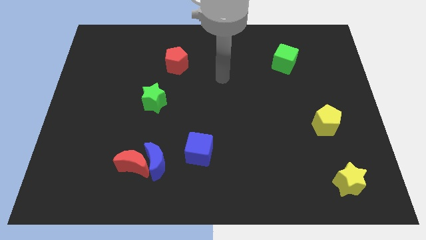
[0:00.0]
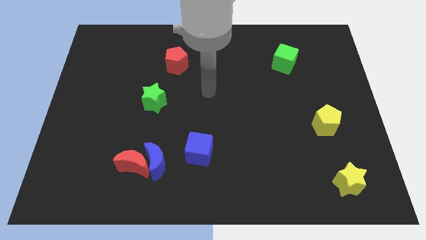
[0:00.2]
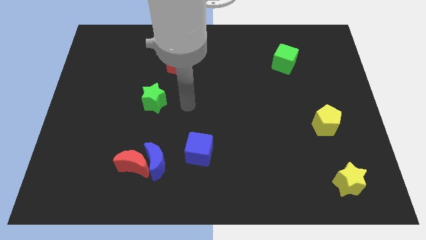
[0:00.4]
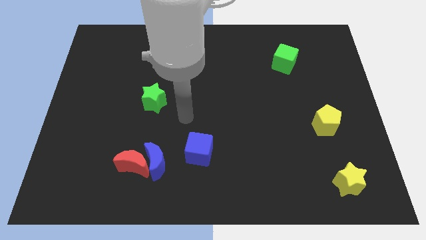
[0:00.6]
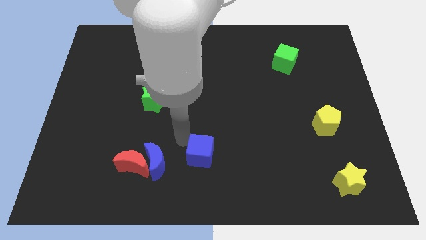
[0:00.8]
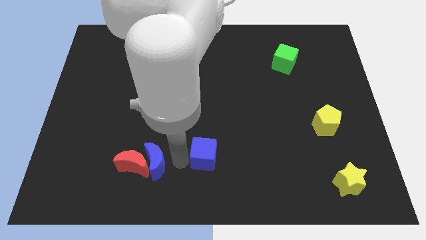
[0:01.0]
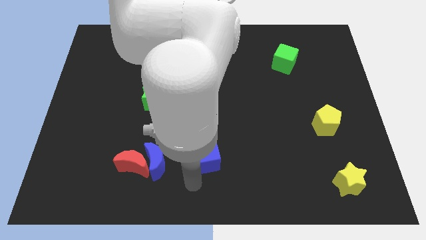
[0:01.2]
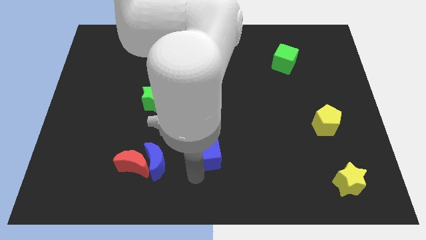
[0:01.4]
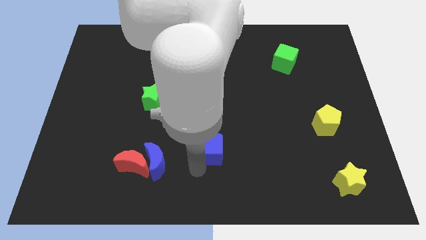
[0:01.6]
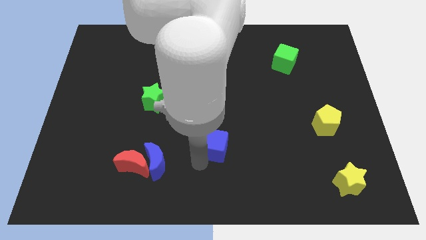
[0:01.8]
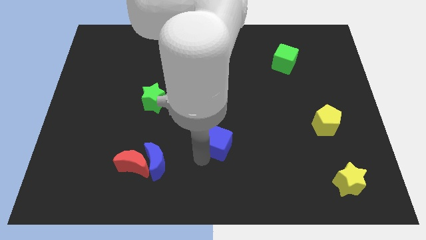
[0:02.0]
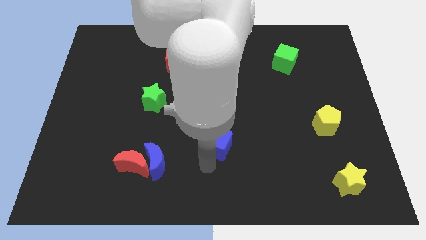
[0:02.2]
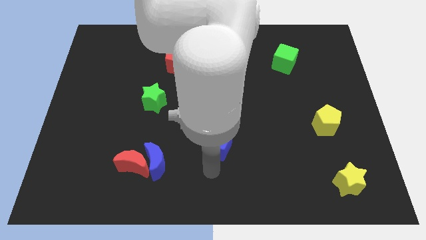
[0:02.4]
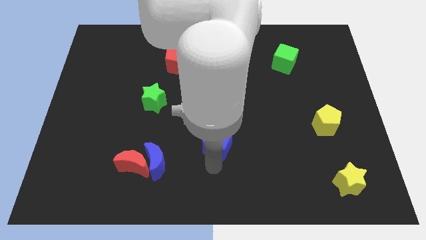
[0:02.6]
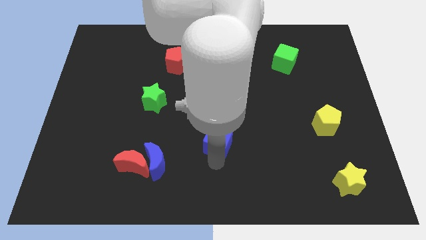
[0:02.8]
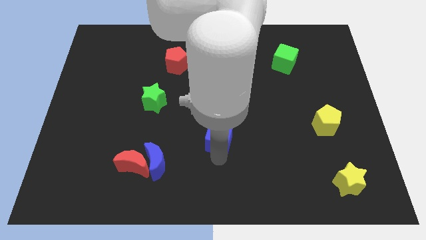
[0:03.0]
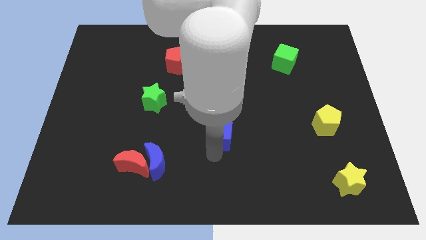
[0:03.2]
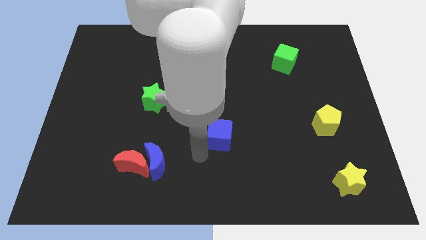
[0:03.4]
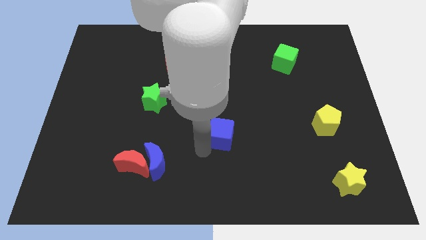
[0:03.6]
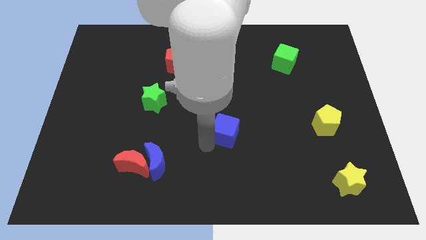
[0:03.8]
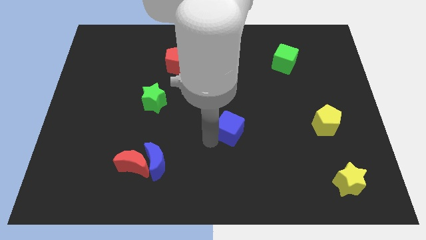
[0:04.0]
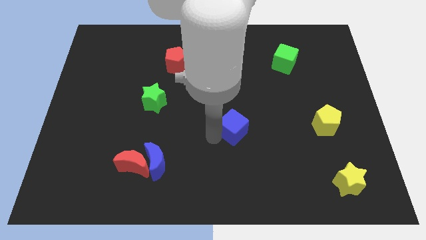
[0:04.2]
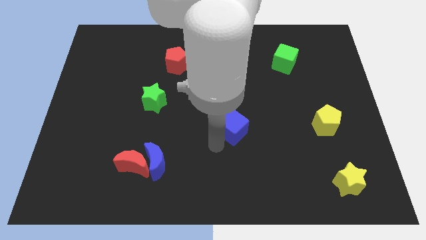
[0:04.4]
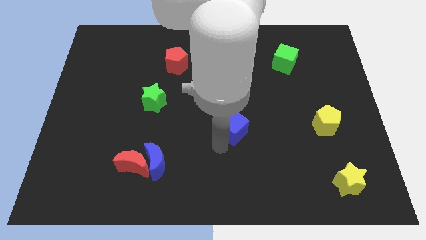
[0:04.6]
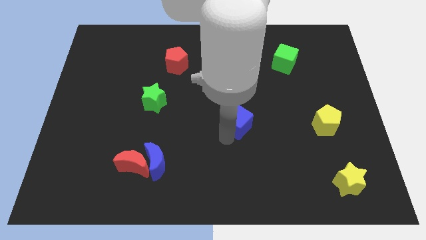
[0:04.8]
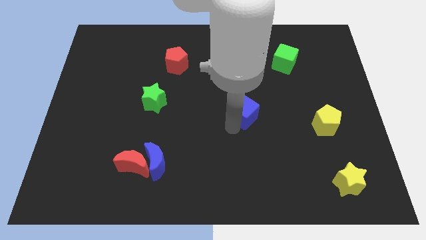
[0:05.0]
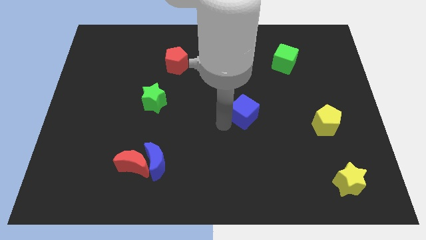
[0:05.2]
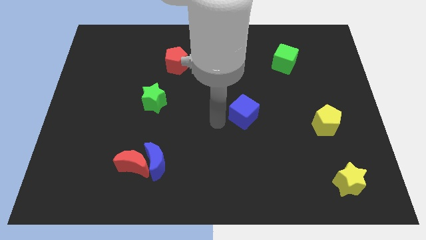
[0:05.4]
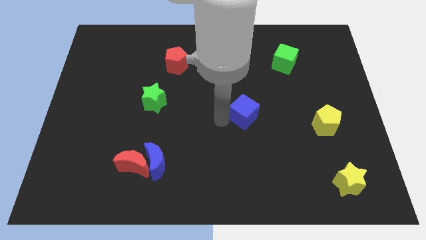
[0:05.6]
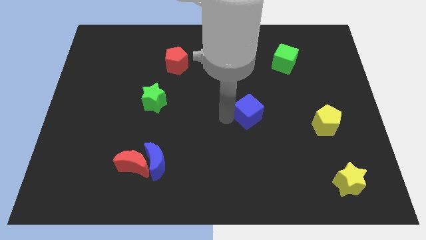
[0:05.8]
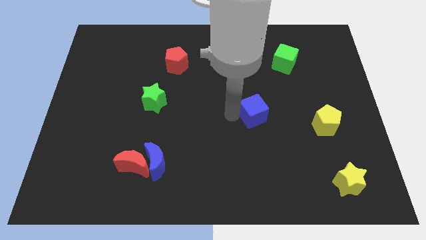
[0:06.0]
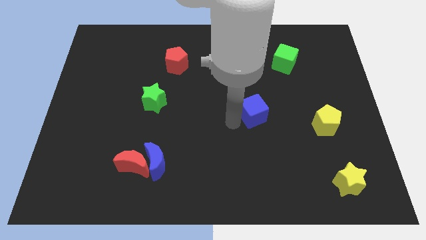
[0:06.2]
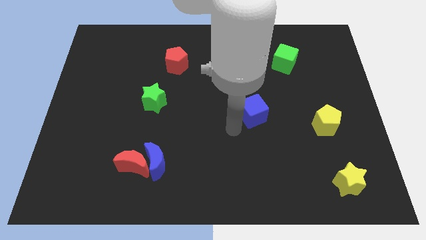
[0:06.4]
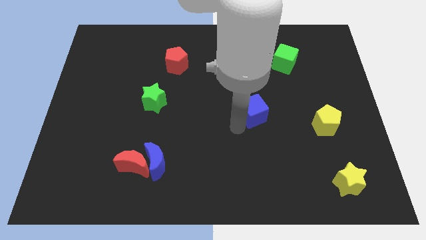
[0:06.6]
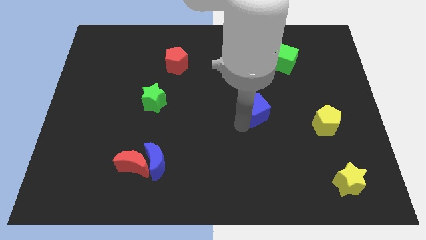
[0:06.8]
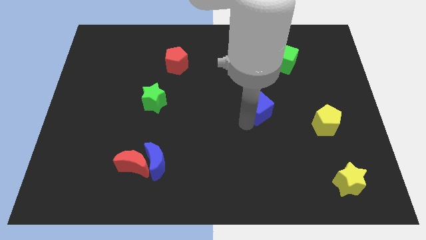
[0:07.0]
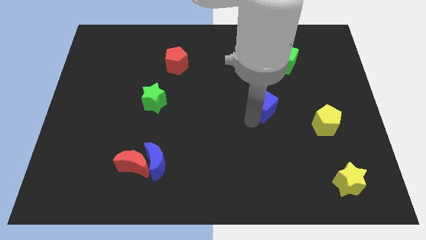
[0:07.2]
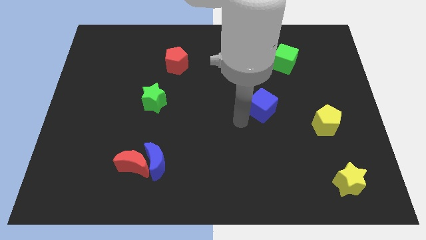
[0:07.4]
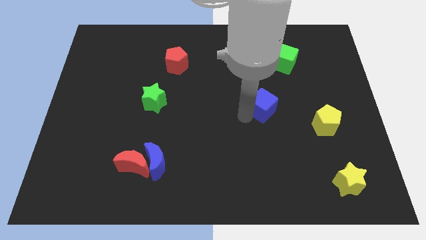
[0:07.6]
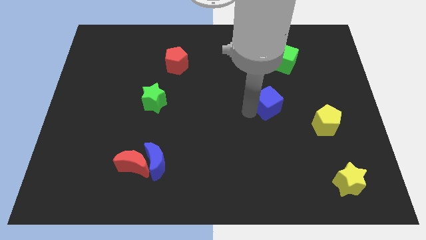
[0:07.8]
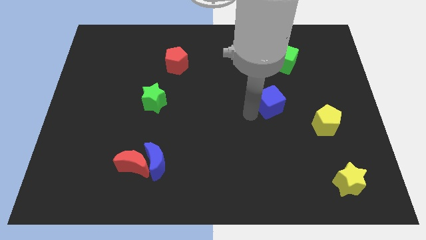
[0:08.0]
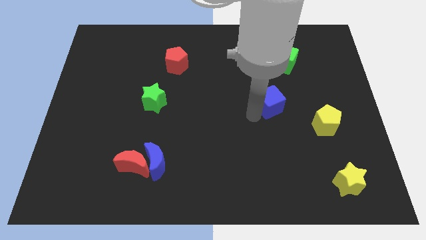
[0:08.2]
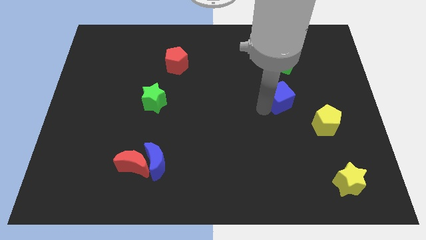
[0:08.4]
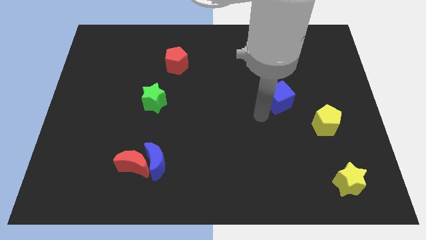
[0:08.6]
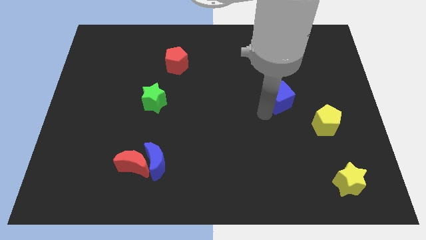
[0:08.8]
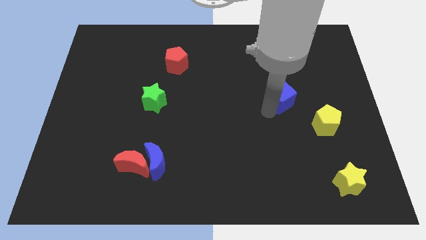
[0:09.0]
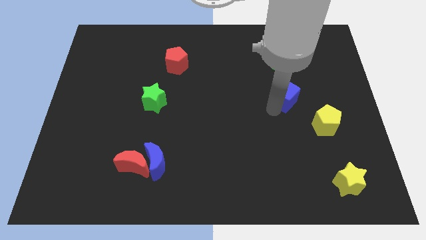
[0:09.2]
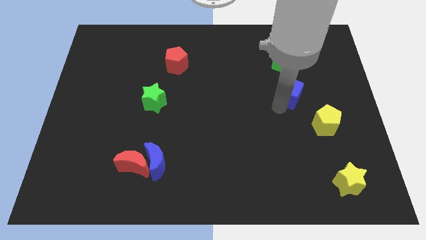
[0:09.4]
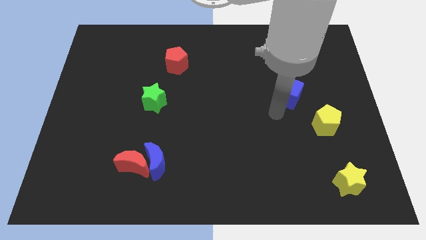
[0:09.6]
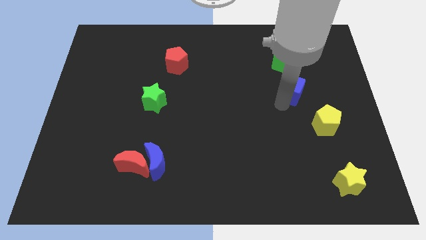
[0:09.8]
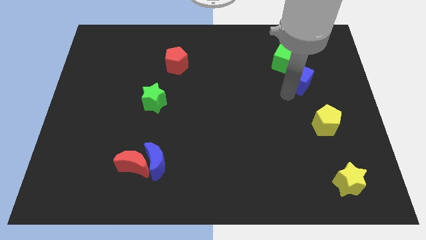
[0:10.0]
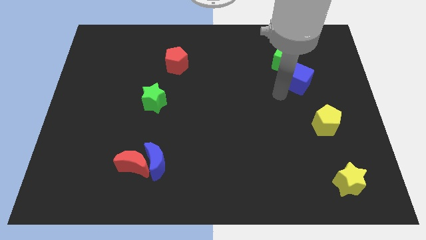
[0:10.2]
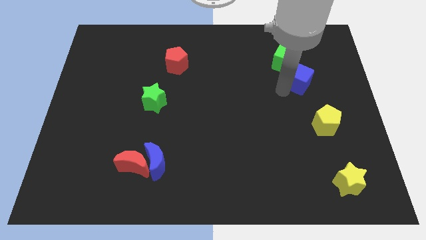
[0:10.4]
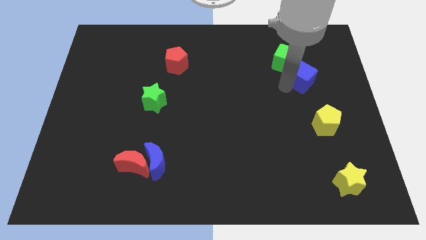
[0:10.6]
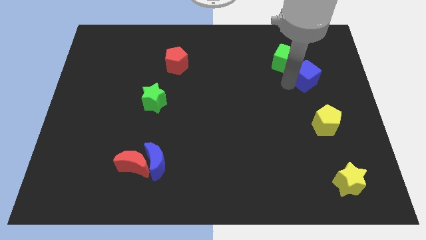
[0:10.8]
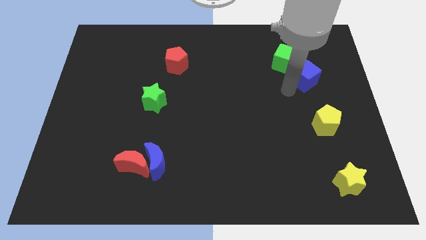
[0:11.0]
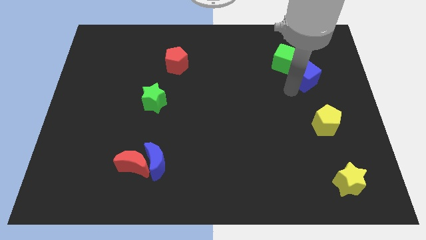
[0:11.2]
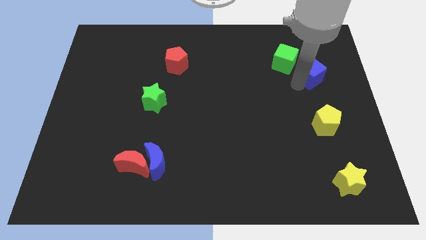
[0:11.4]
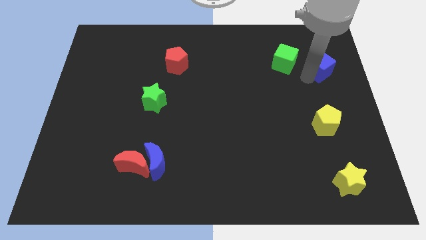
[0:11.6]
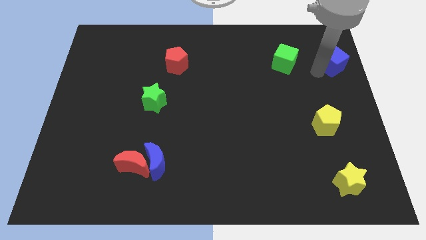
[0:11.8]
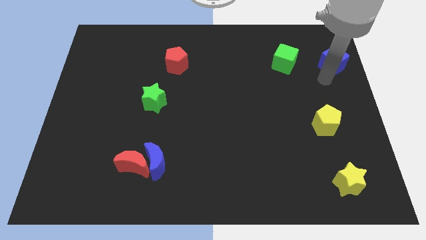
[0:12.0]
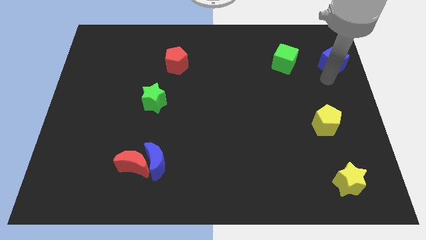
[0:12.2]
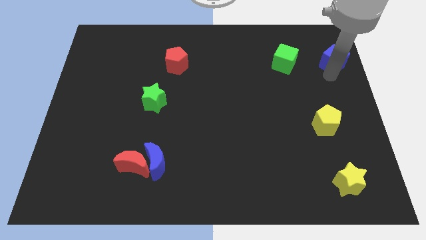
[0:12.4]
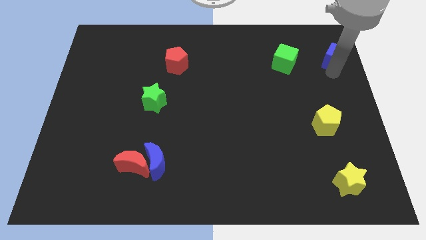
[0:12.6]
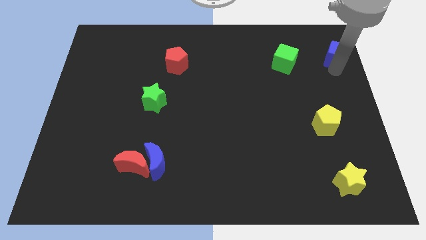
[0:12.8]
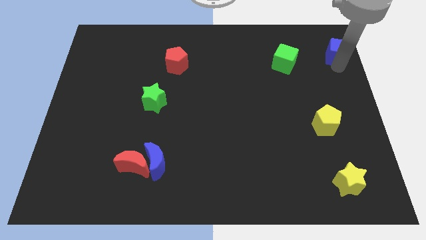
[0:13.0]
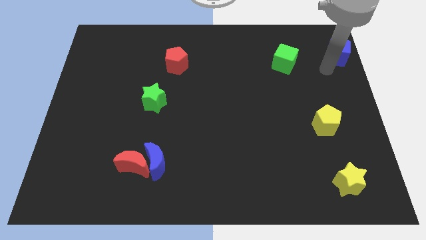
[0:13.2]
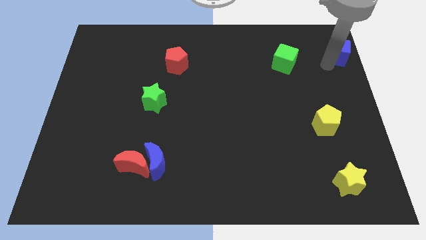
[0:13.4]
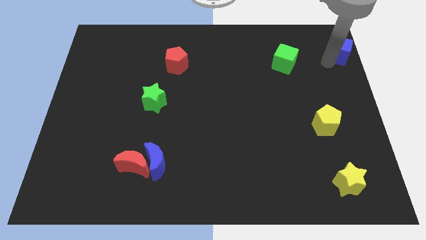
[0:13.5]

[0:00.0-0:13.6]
move the blue cube to the upper right corner
